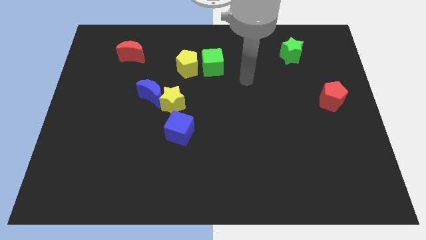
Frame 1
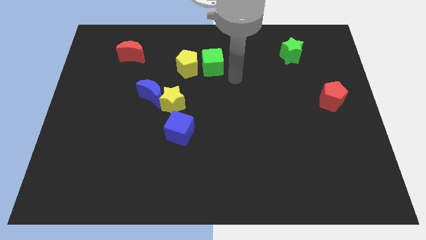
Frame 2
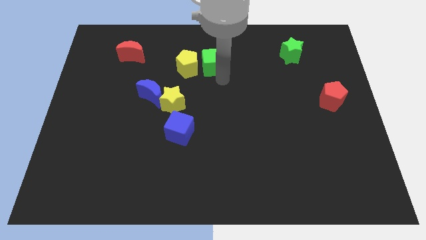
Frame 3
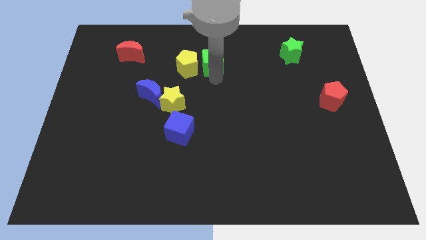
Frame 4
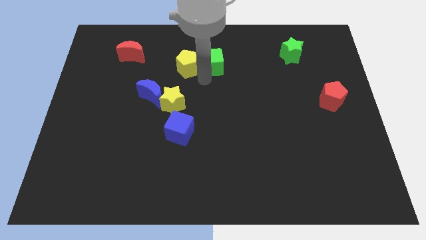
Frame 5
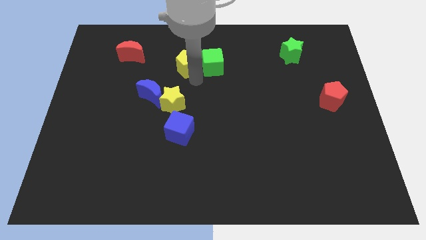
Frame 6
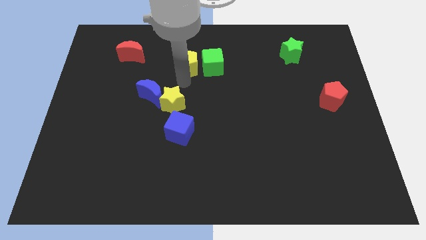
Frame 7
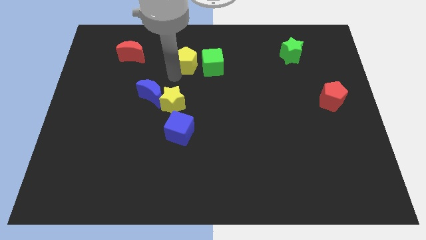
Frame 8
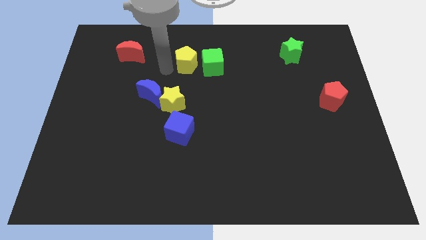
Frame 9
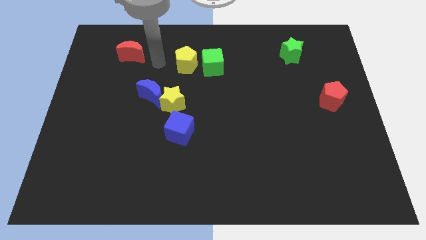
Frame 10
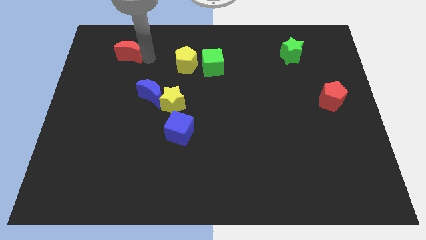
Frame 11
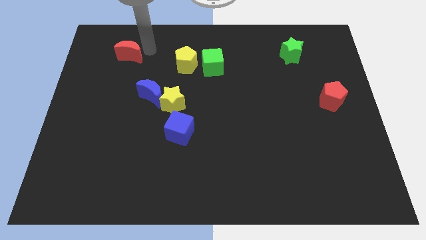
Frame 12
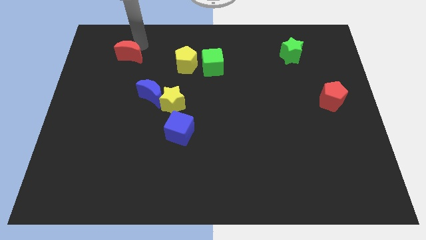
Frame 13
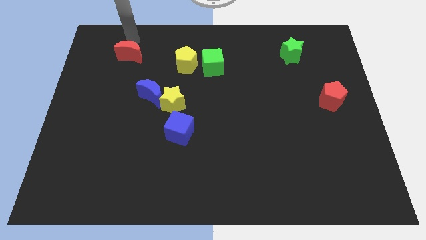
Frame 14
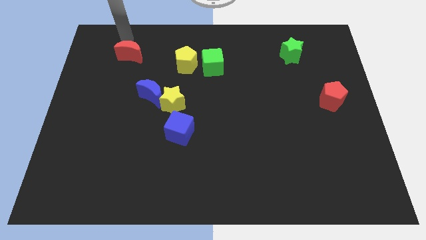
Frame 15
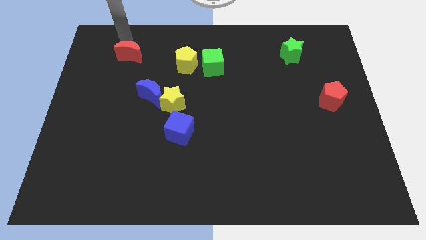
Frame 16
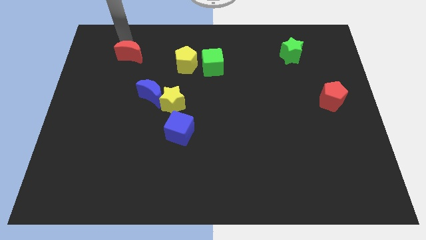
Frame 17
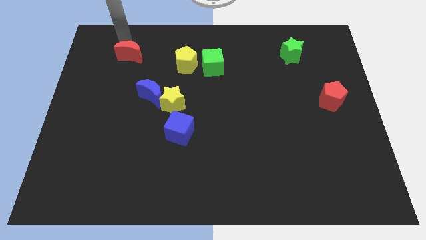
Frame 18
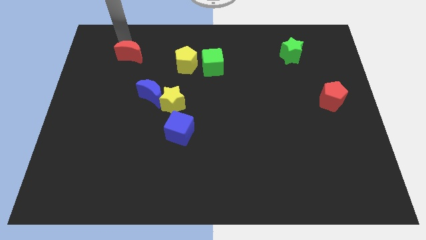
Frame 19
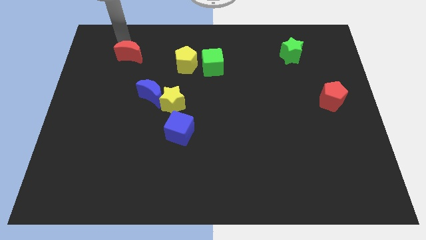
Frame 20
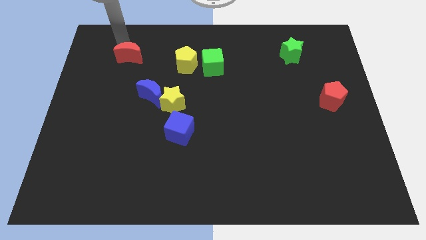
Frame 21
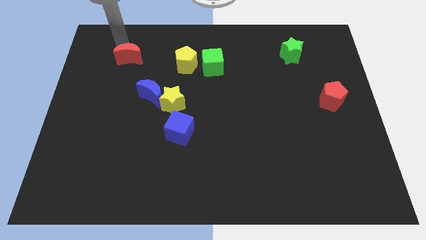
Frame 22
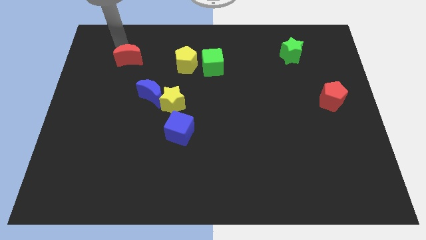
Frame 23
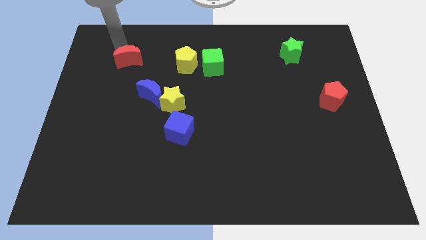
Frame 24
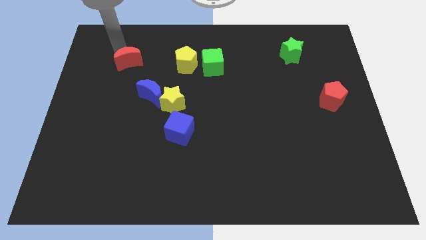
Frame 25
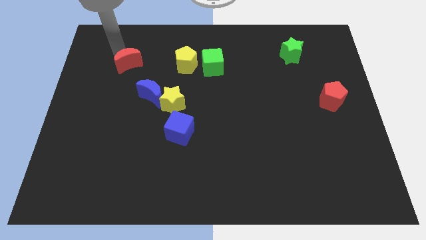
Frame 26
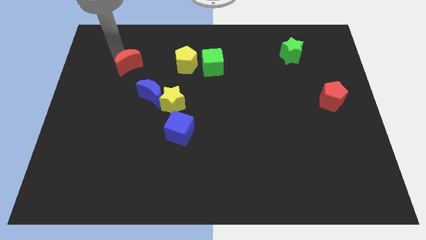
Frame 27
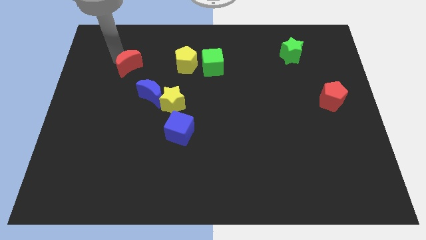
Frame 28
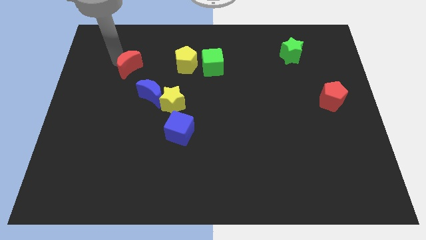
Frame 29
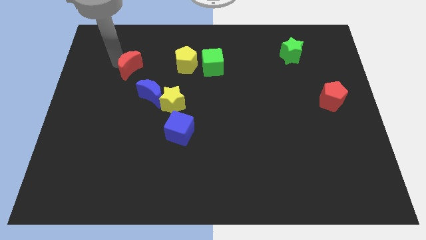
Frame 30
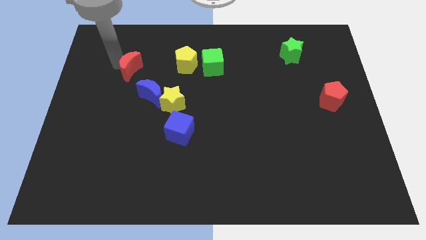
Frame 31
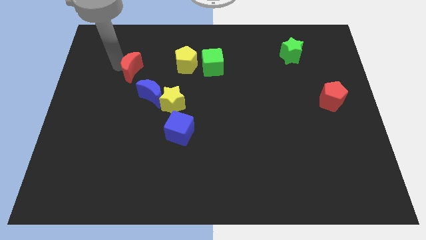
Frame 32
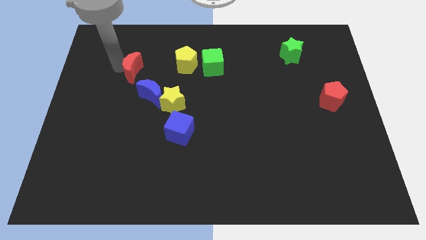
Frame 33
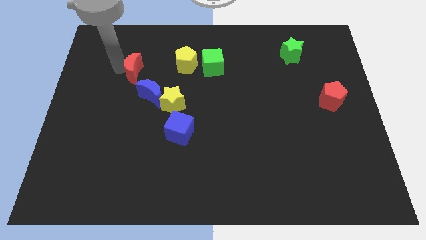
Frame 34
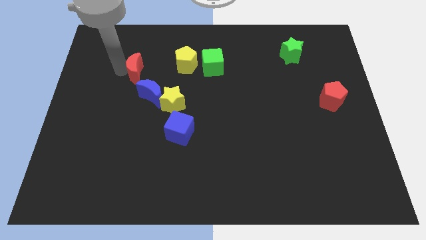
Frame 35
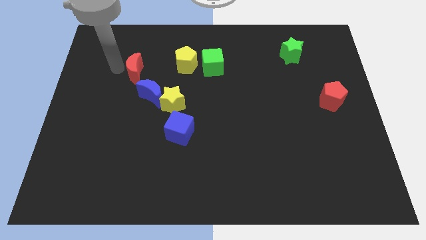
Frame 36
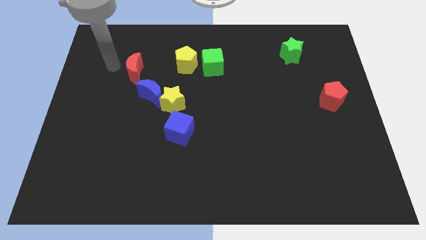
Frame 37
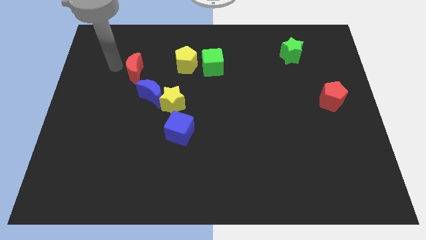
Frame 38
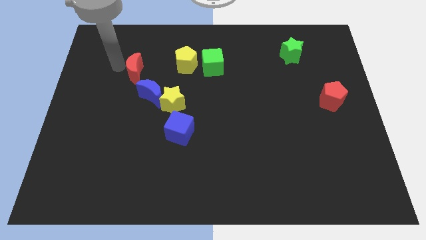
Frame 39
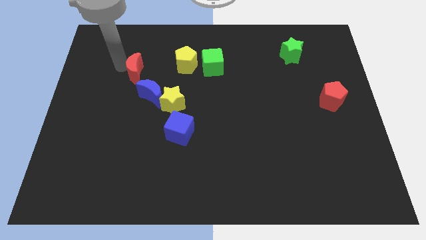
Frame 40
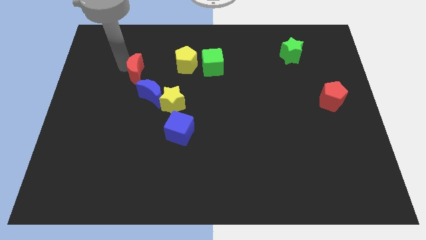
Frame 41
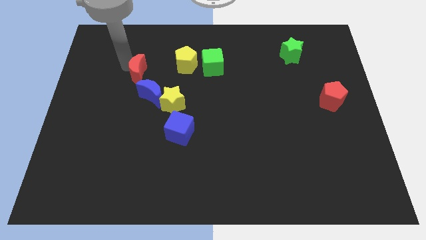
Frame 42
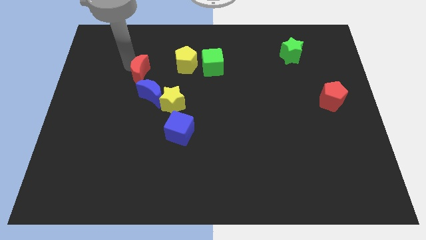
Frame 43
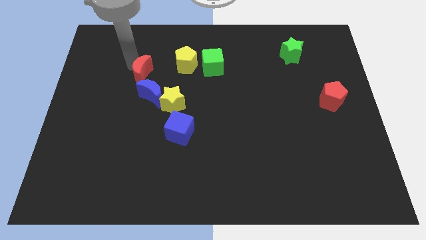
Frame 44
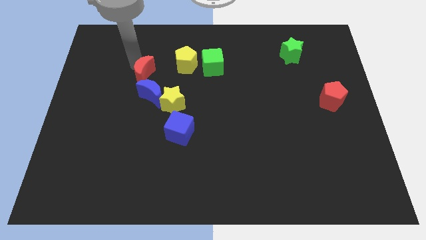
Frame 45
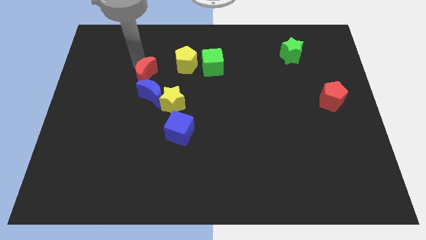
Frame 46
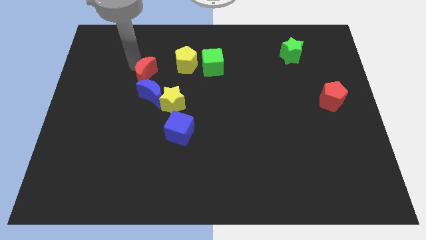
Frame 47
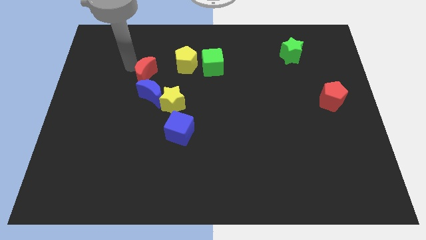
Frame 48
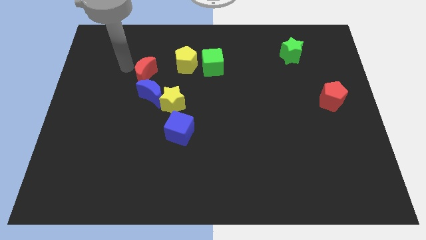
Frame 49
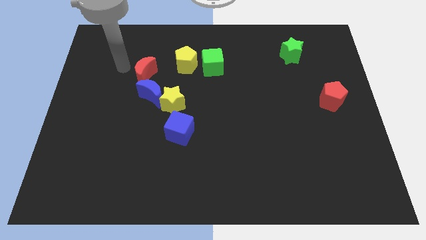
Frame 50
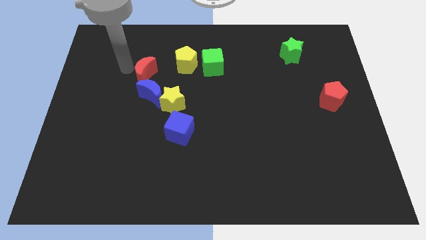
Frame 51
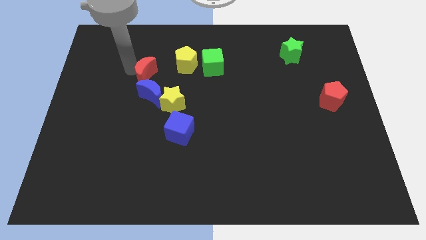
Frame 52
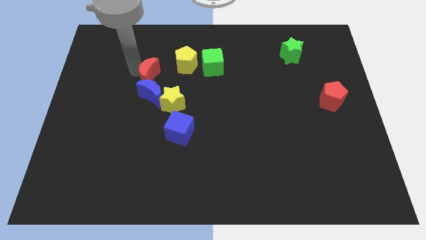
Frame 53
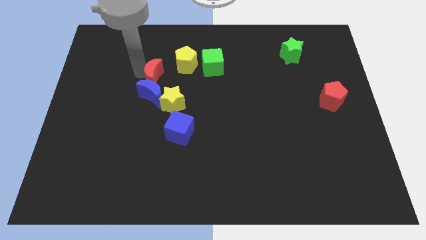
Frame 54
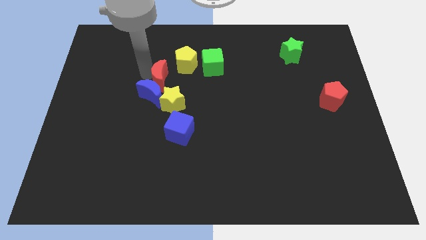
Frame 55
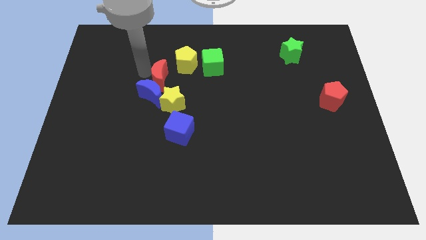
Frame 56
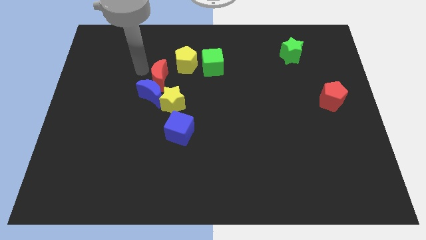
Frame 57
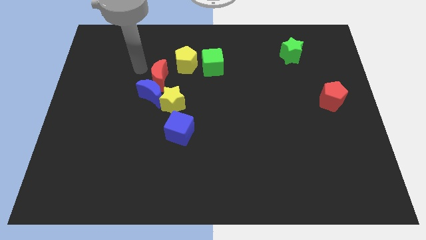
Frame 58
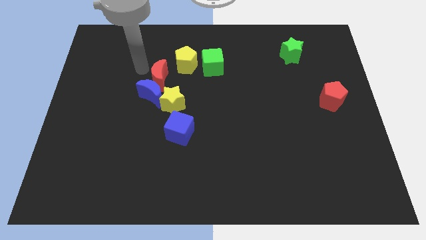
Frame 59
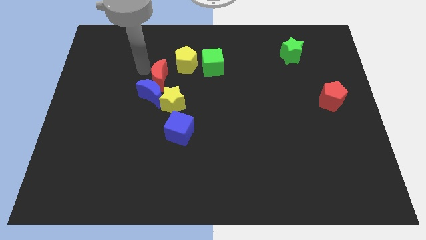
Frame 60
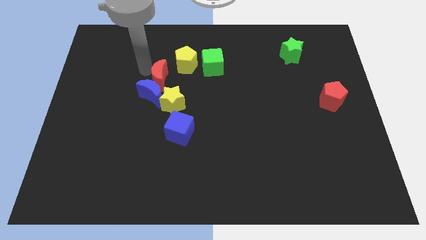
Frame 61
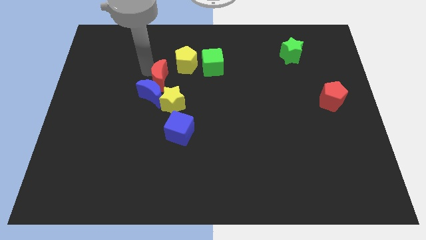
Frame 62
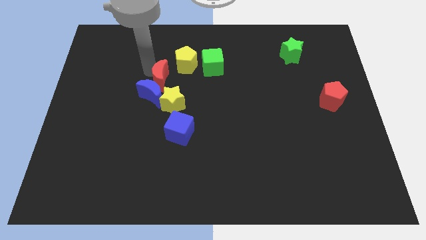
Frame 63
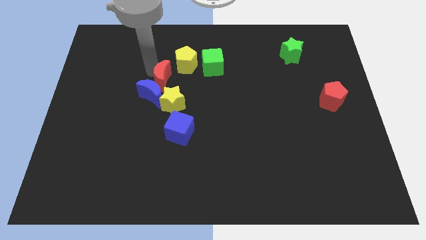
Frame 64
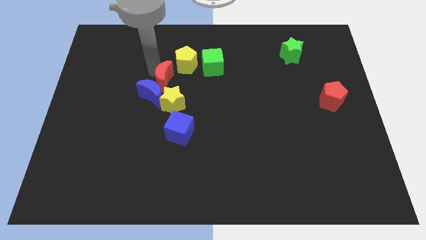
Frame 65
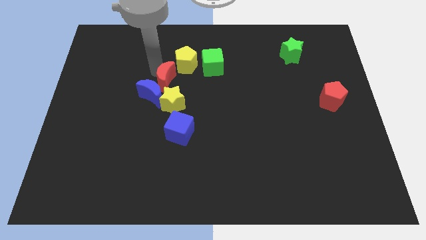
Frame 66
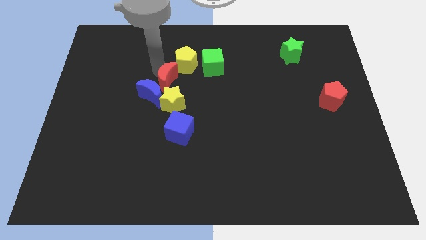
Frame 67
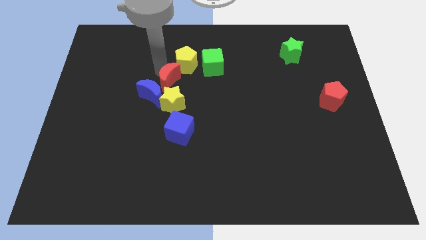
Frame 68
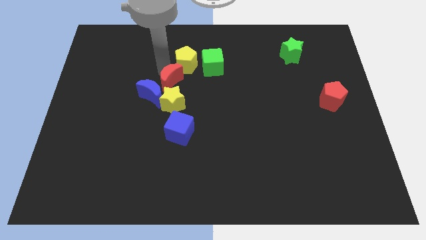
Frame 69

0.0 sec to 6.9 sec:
slide the red moon to the center
